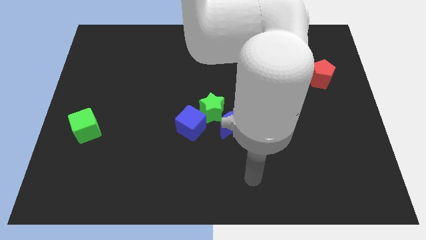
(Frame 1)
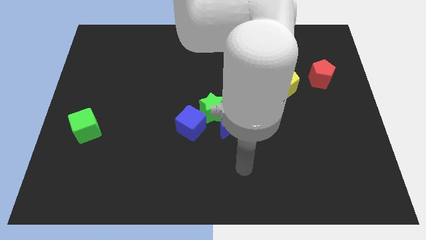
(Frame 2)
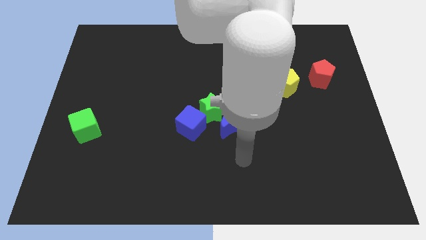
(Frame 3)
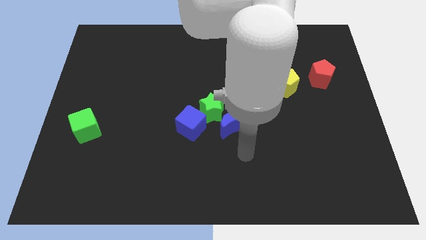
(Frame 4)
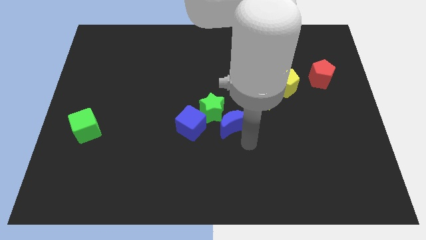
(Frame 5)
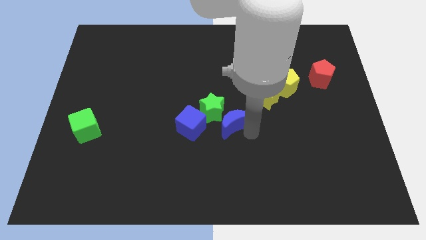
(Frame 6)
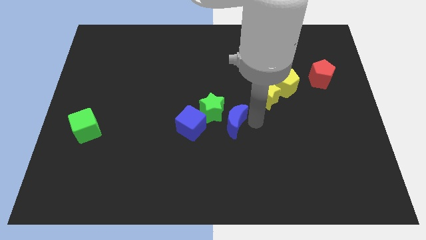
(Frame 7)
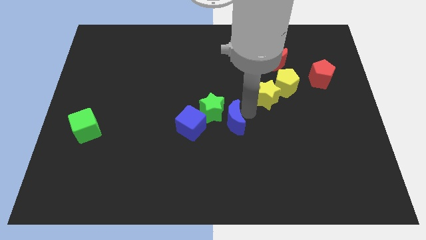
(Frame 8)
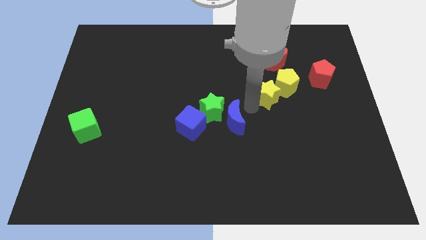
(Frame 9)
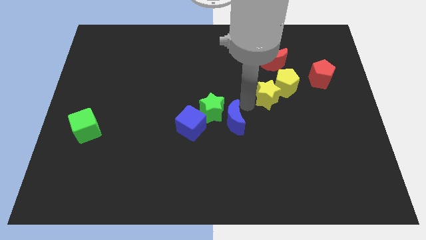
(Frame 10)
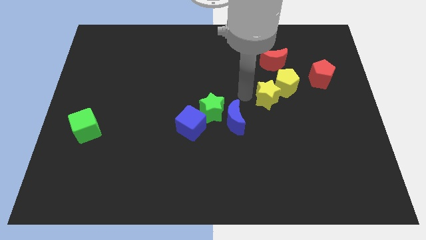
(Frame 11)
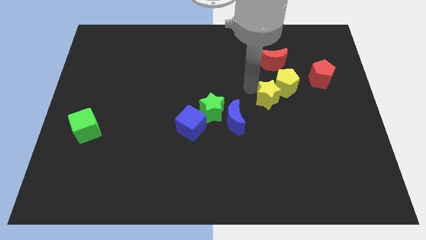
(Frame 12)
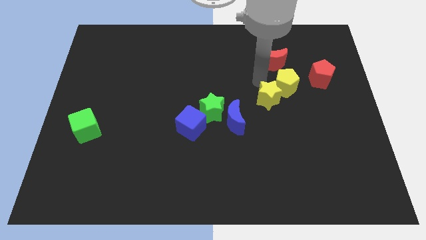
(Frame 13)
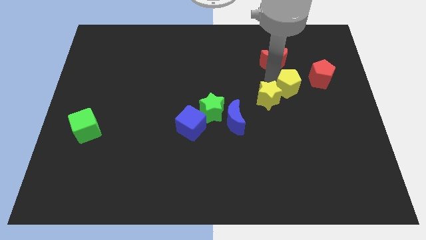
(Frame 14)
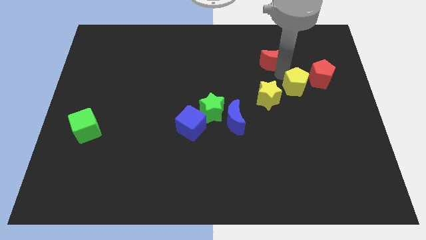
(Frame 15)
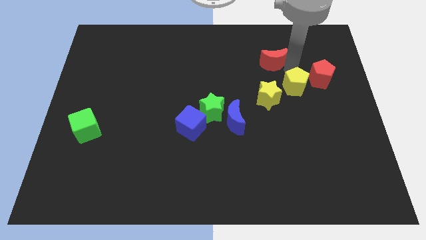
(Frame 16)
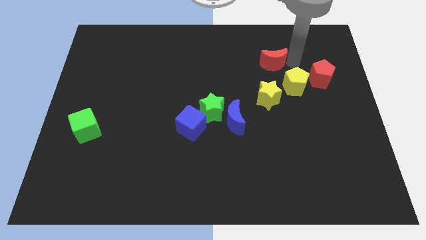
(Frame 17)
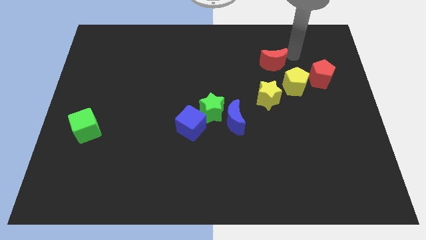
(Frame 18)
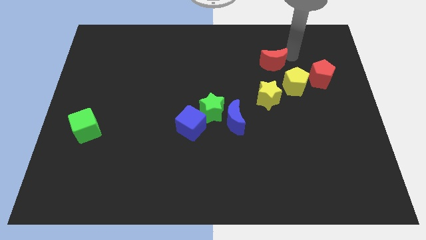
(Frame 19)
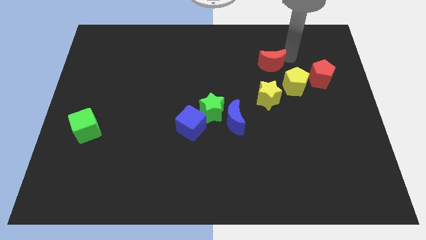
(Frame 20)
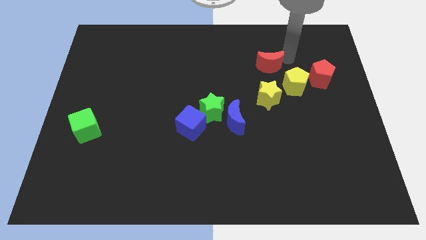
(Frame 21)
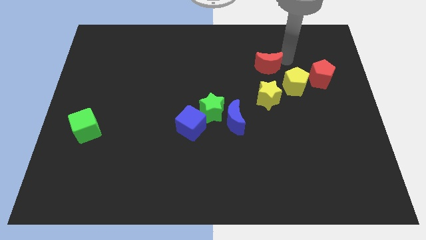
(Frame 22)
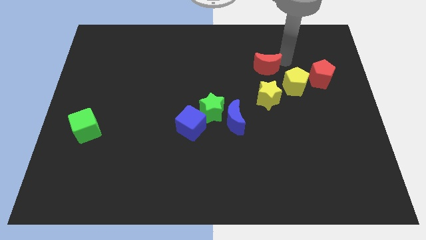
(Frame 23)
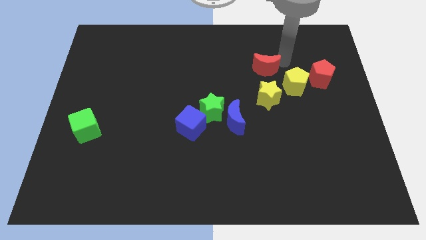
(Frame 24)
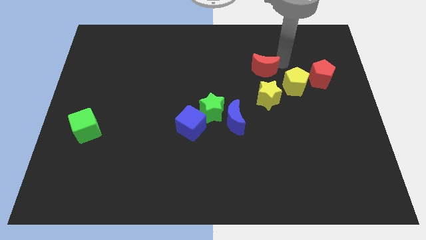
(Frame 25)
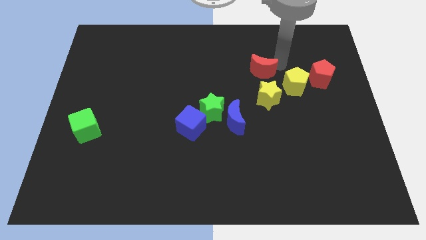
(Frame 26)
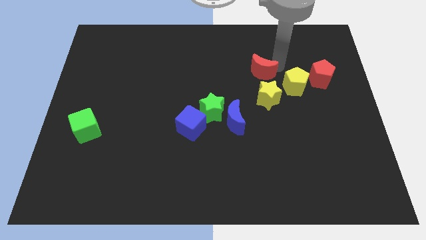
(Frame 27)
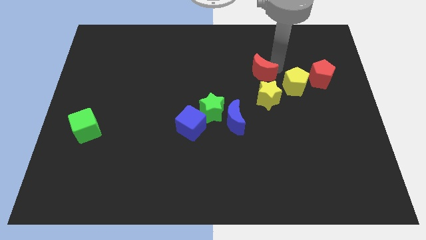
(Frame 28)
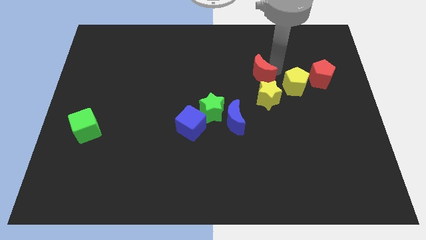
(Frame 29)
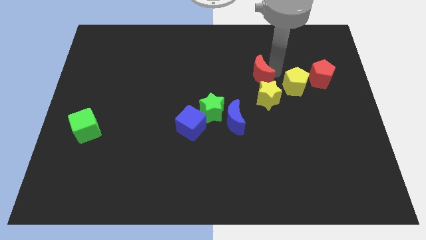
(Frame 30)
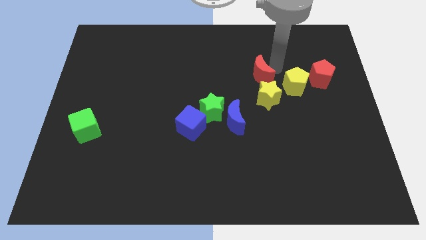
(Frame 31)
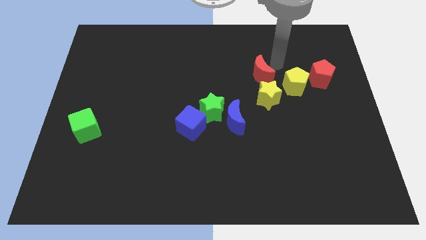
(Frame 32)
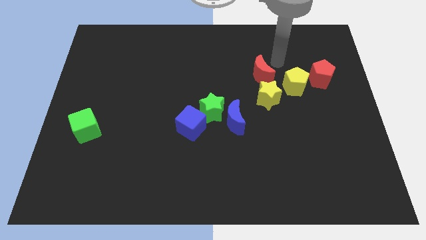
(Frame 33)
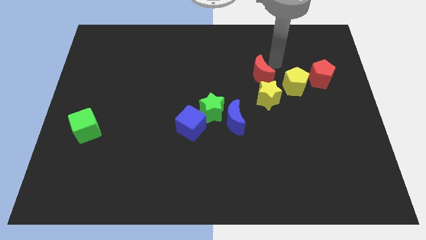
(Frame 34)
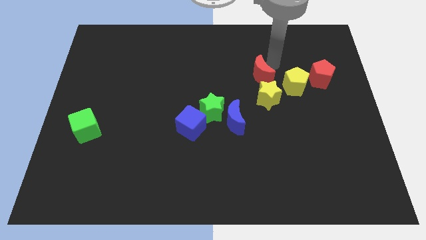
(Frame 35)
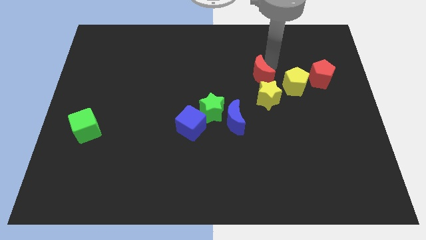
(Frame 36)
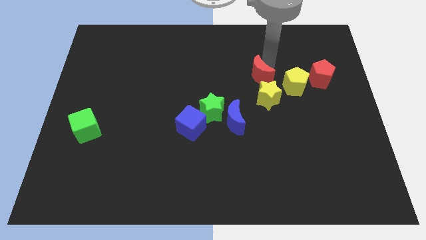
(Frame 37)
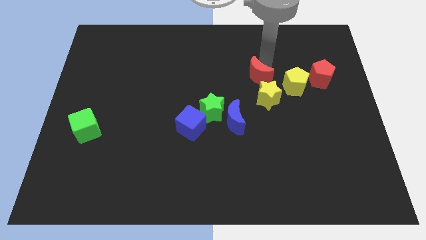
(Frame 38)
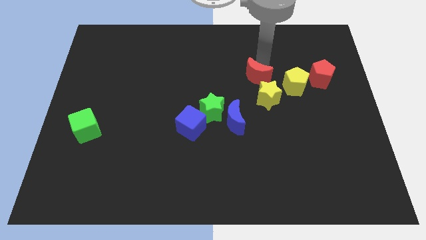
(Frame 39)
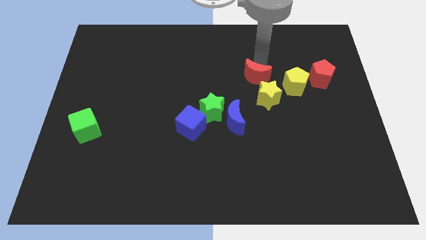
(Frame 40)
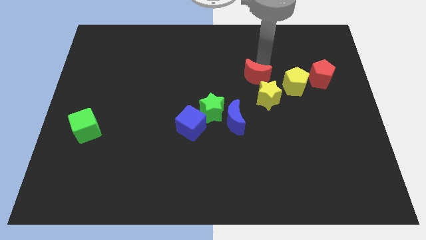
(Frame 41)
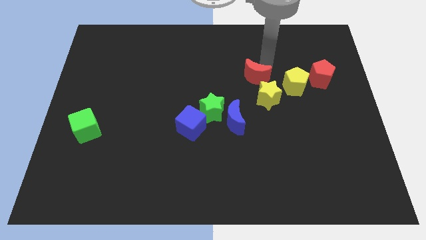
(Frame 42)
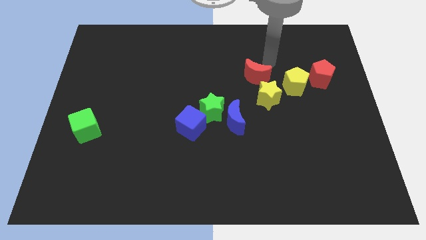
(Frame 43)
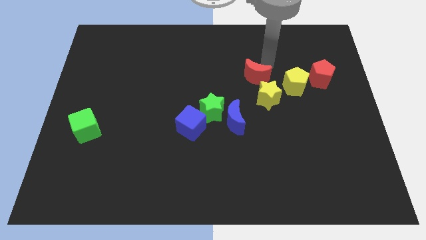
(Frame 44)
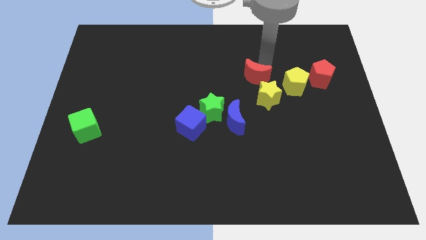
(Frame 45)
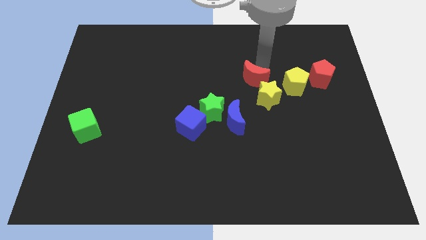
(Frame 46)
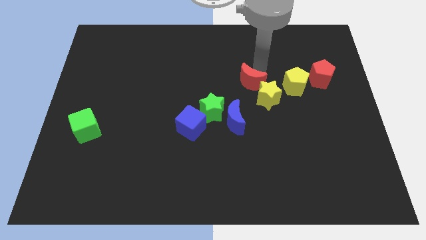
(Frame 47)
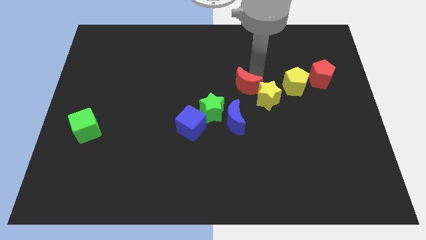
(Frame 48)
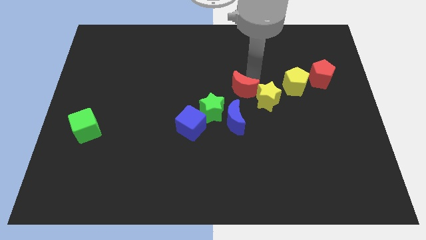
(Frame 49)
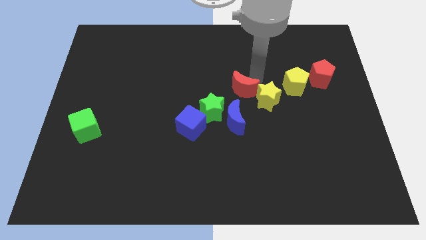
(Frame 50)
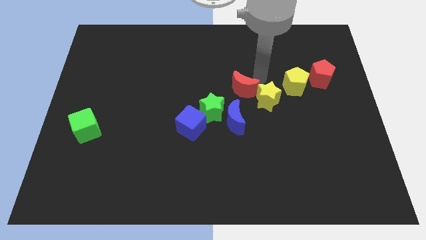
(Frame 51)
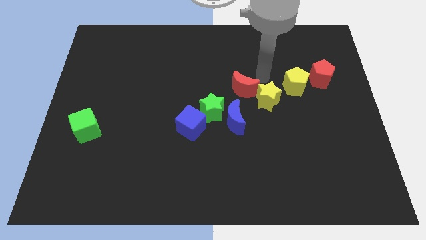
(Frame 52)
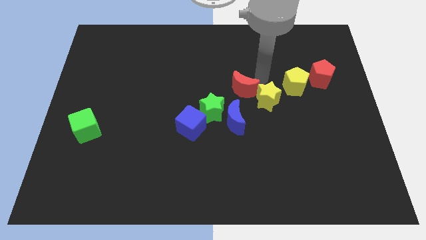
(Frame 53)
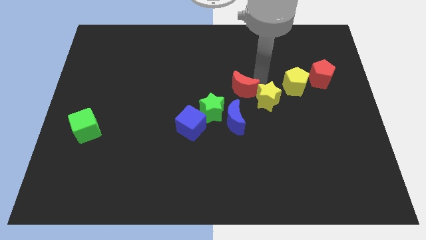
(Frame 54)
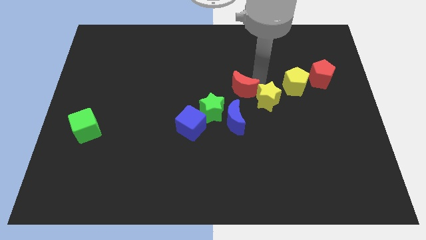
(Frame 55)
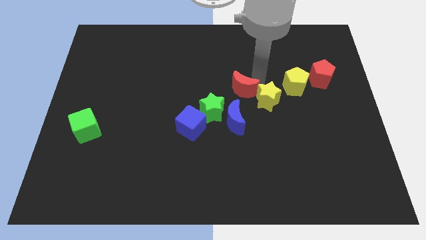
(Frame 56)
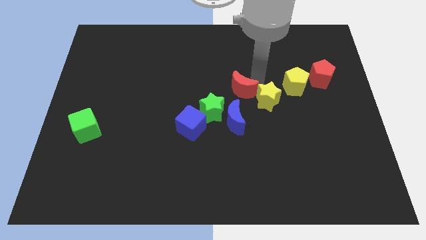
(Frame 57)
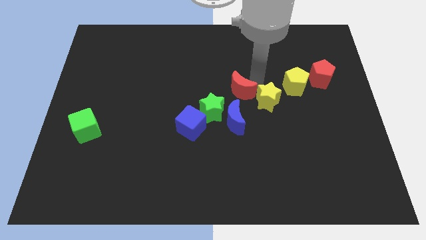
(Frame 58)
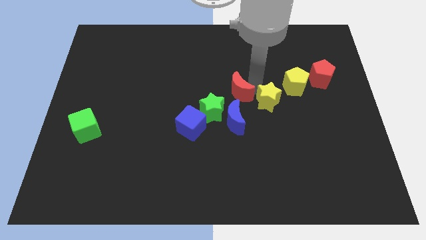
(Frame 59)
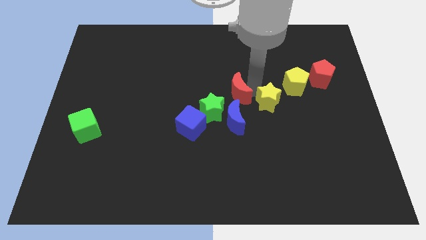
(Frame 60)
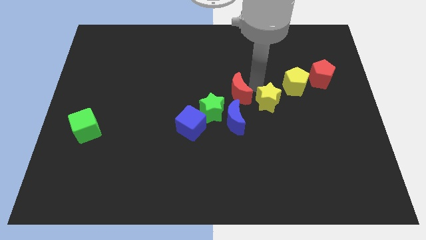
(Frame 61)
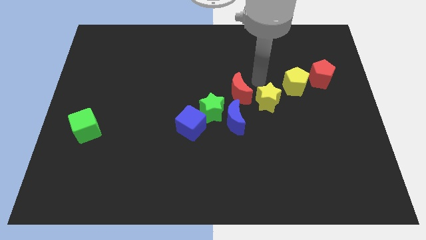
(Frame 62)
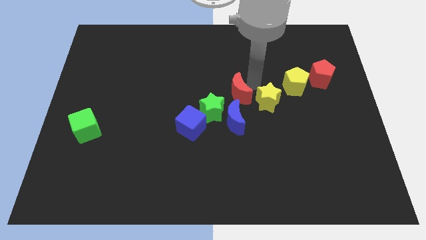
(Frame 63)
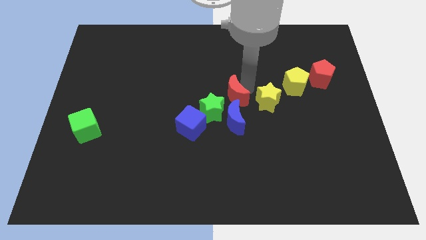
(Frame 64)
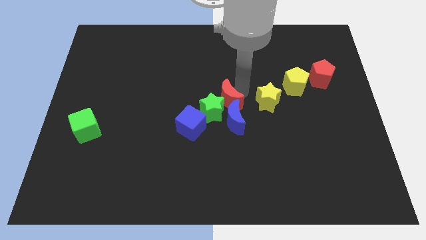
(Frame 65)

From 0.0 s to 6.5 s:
put the red moon next to the green star

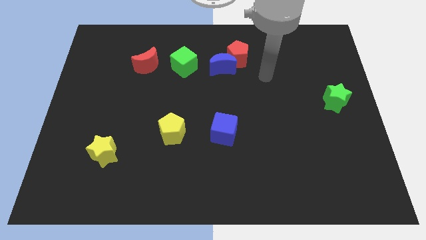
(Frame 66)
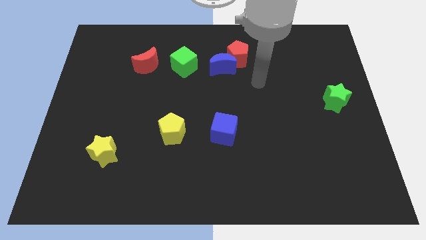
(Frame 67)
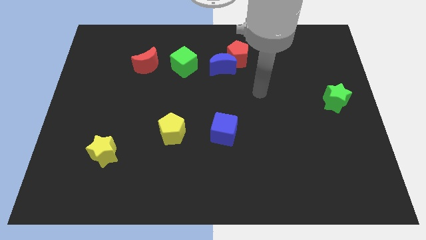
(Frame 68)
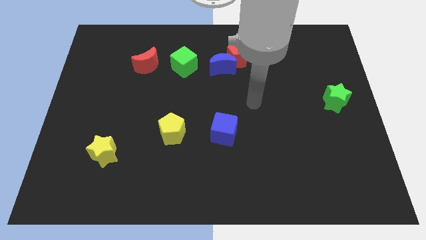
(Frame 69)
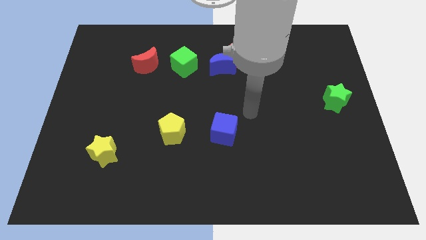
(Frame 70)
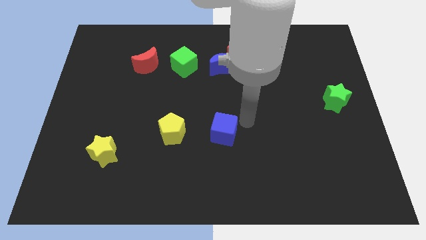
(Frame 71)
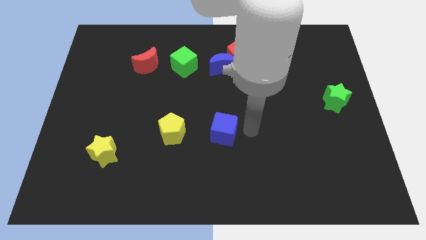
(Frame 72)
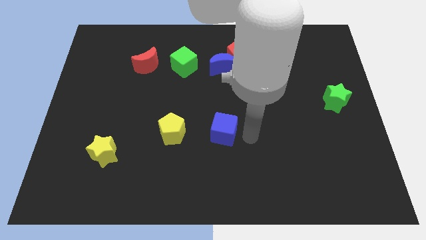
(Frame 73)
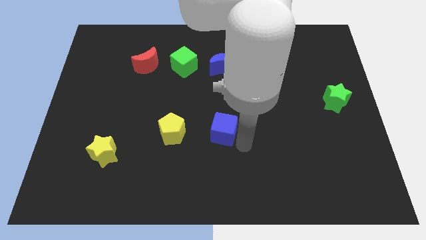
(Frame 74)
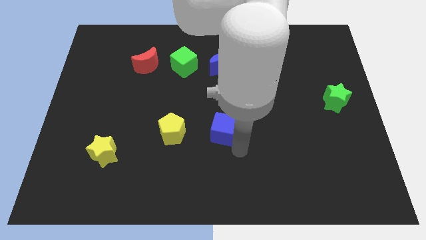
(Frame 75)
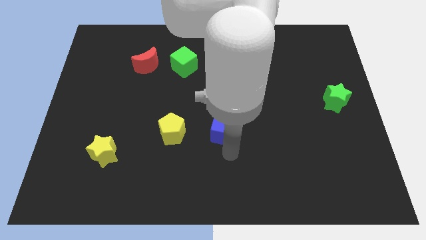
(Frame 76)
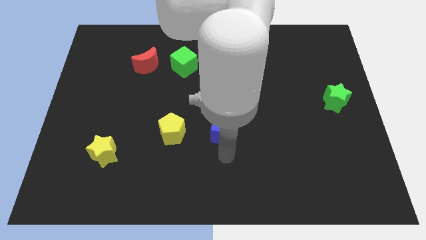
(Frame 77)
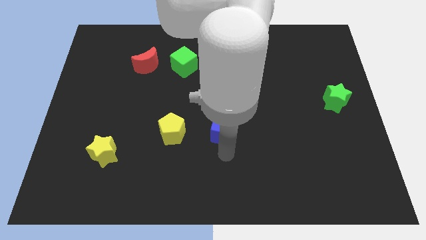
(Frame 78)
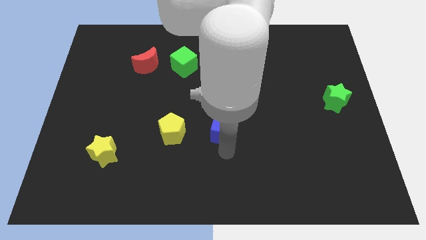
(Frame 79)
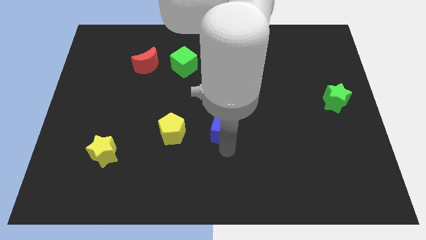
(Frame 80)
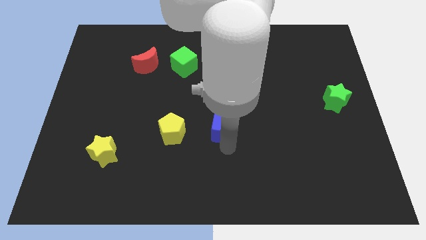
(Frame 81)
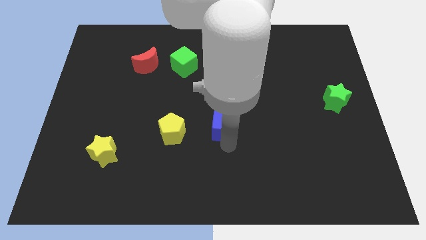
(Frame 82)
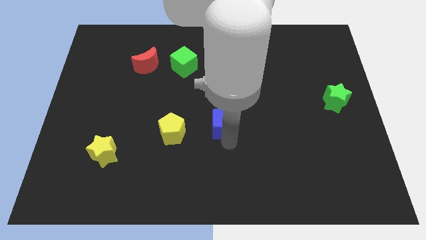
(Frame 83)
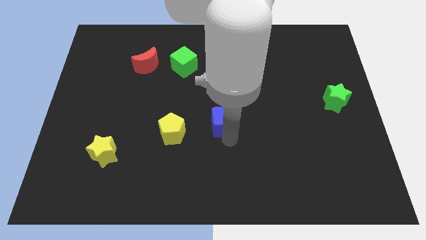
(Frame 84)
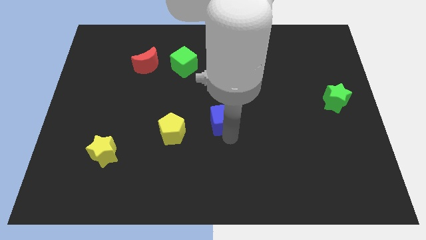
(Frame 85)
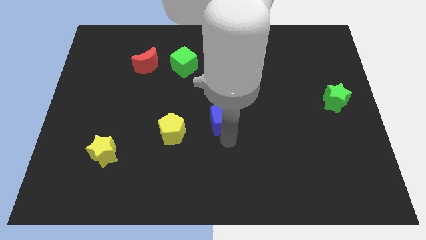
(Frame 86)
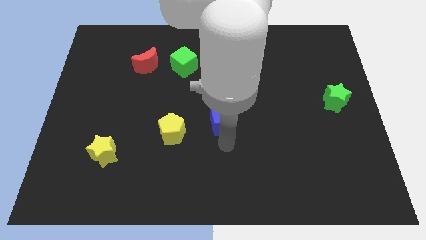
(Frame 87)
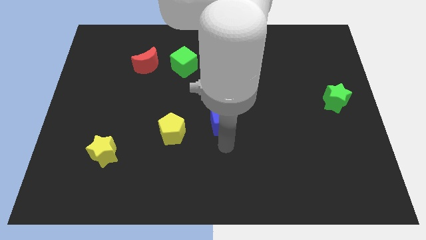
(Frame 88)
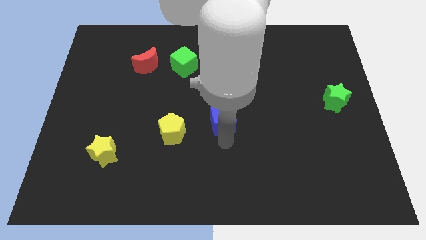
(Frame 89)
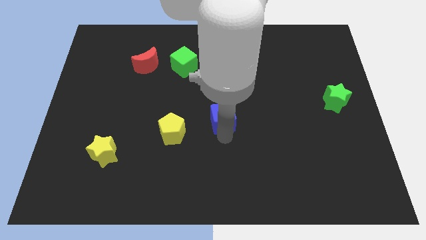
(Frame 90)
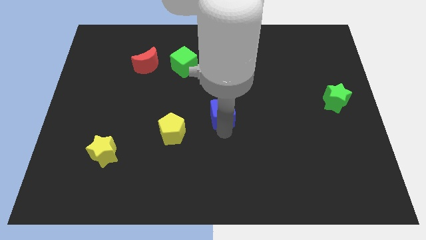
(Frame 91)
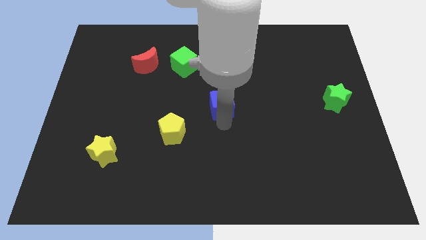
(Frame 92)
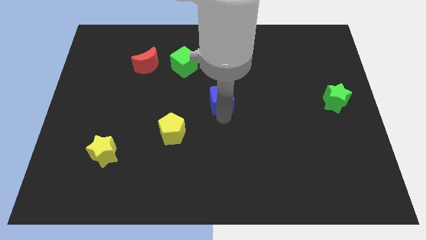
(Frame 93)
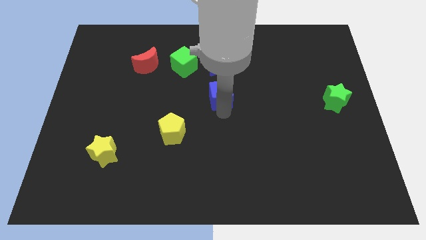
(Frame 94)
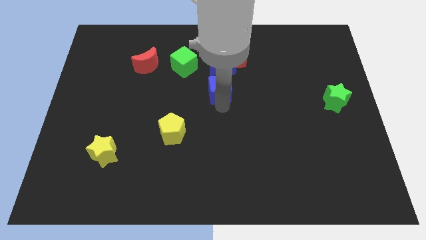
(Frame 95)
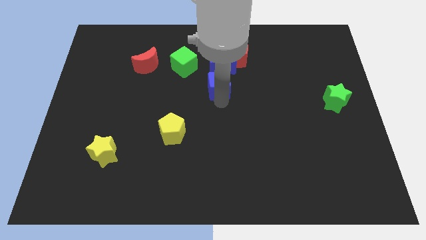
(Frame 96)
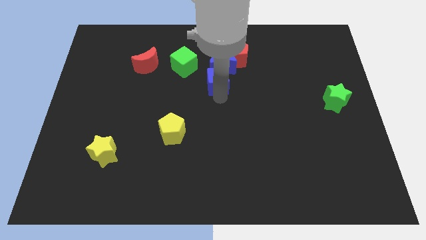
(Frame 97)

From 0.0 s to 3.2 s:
move the blue cube close to the blue moon
